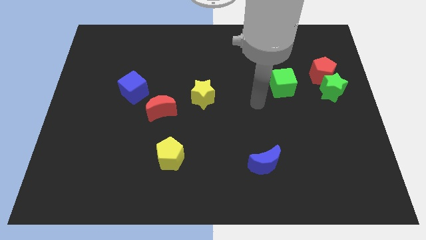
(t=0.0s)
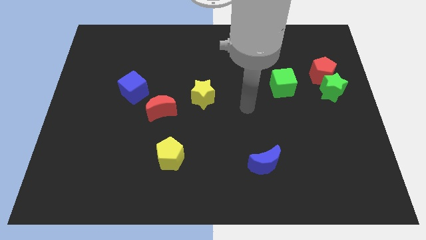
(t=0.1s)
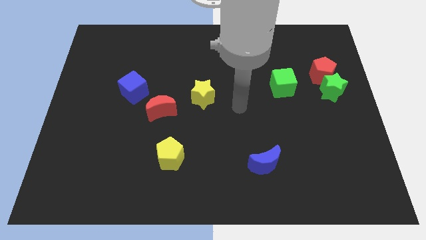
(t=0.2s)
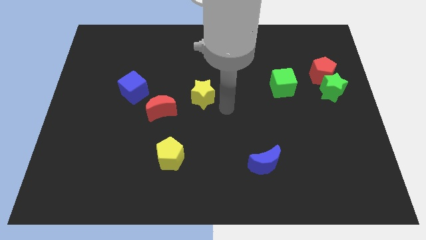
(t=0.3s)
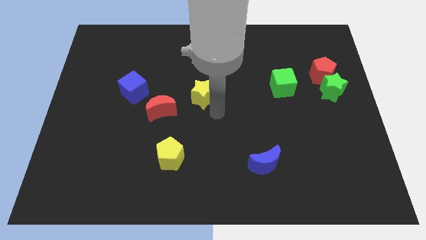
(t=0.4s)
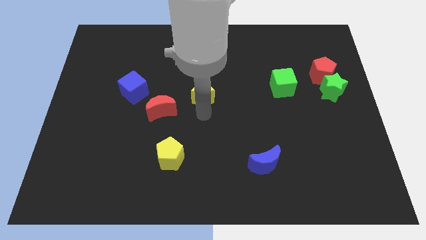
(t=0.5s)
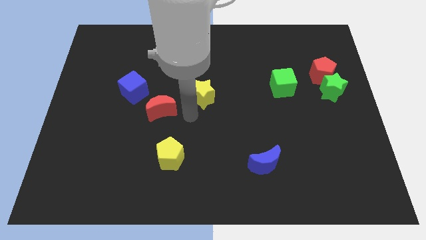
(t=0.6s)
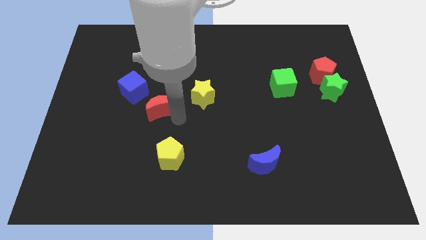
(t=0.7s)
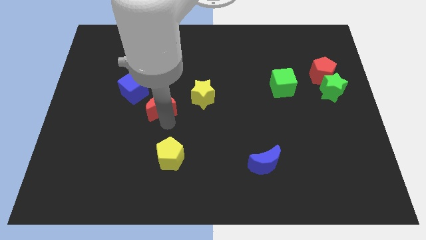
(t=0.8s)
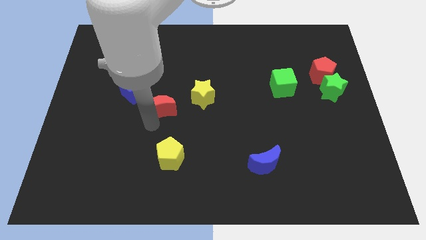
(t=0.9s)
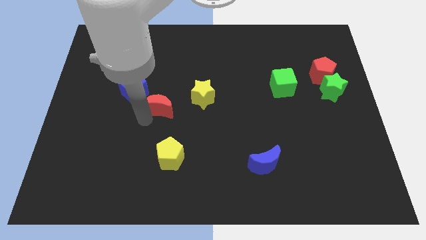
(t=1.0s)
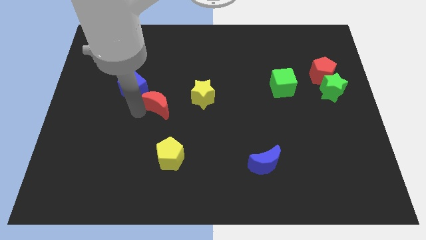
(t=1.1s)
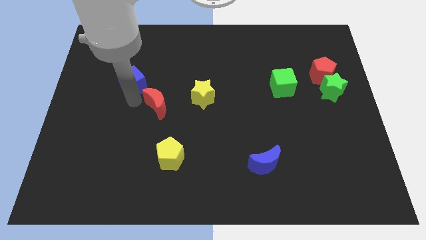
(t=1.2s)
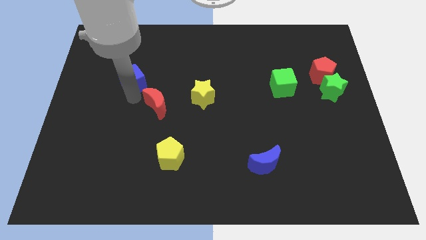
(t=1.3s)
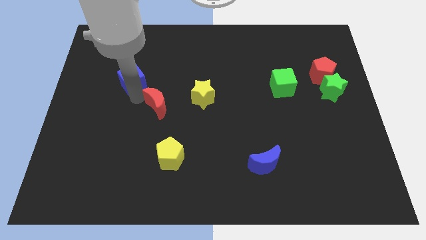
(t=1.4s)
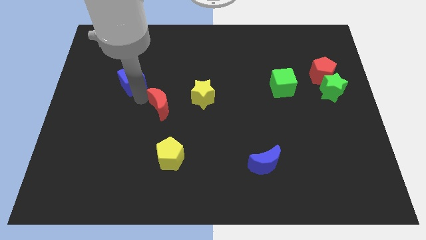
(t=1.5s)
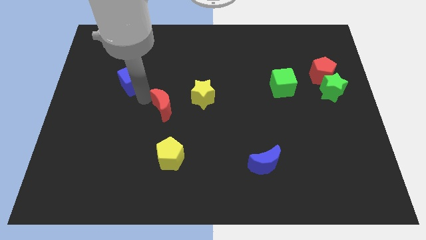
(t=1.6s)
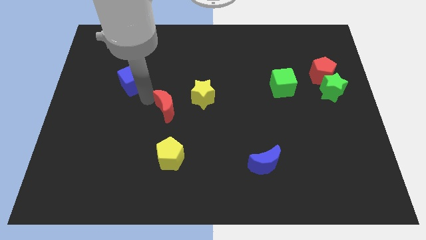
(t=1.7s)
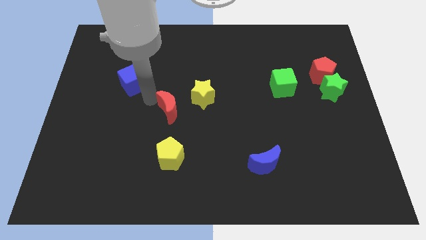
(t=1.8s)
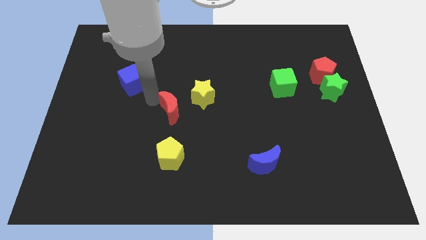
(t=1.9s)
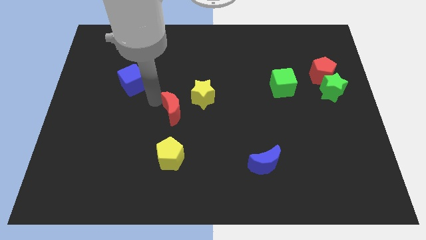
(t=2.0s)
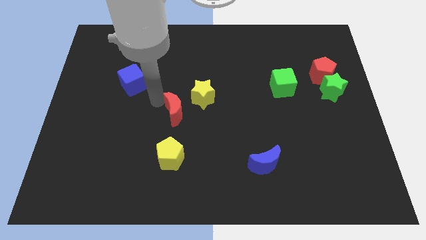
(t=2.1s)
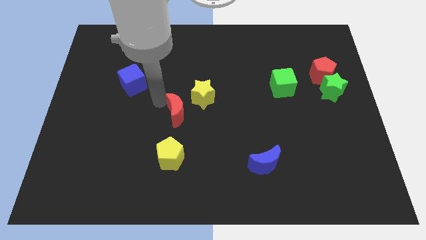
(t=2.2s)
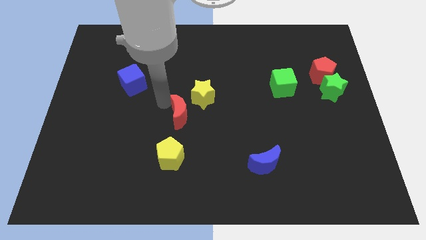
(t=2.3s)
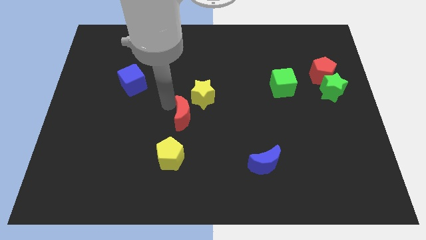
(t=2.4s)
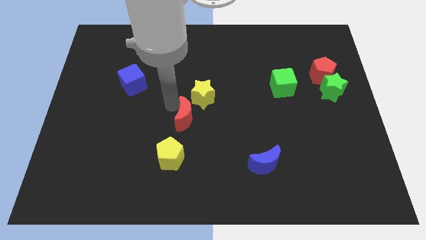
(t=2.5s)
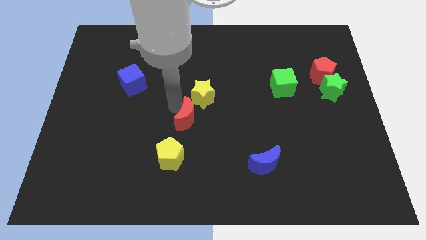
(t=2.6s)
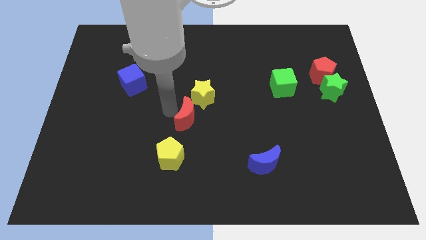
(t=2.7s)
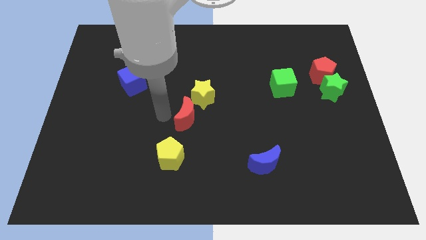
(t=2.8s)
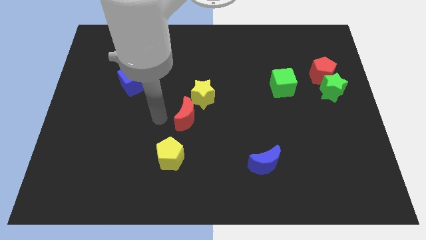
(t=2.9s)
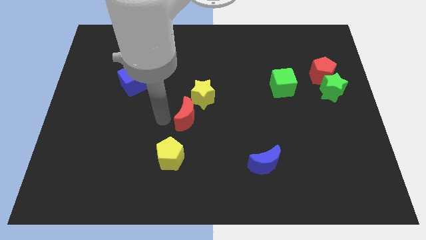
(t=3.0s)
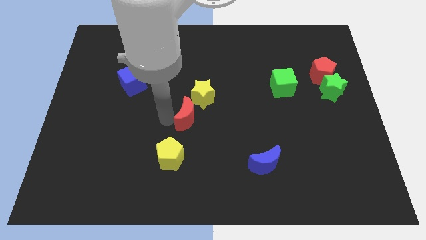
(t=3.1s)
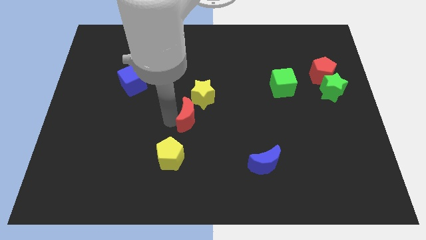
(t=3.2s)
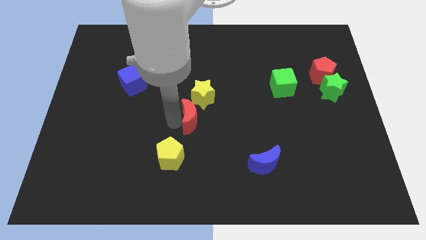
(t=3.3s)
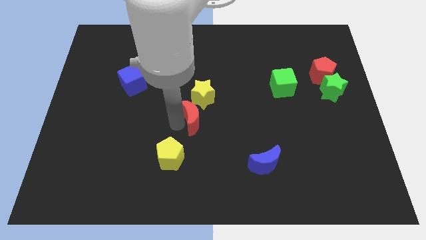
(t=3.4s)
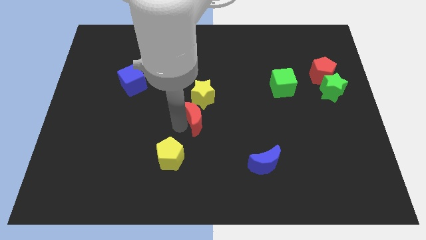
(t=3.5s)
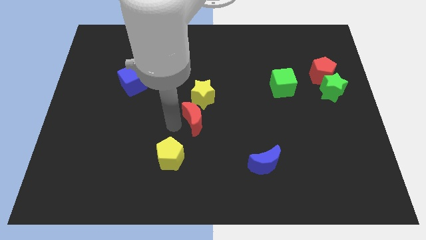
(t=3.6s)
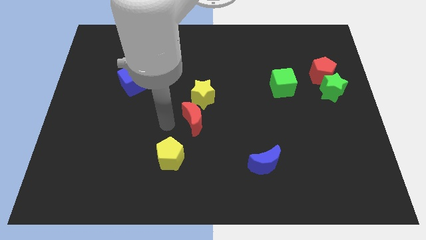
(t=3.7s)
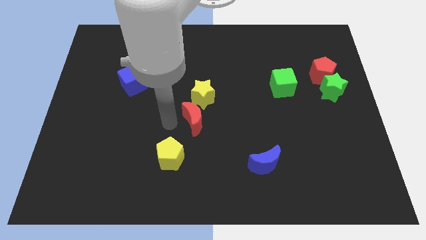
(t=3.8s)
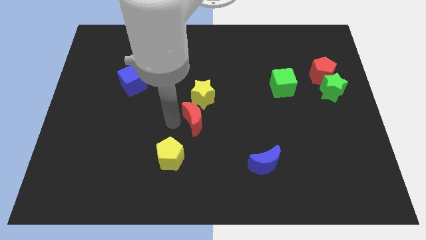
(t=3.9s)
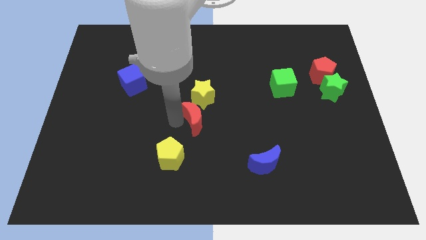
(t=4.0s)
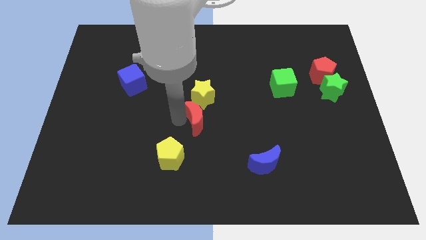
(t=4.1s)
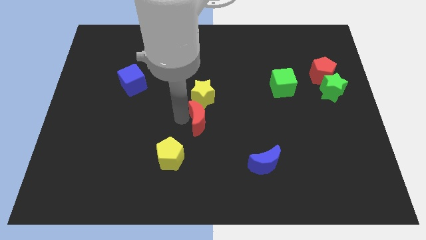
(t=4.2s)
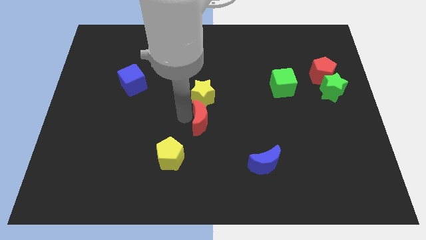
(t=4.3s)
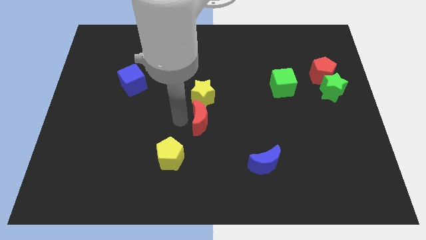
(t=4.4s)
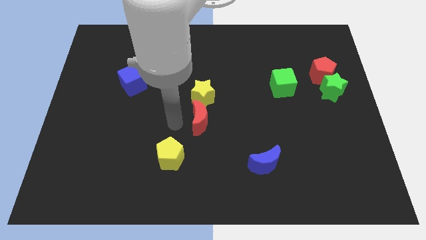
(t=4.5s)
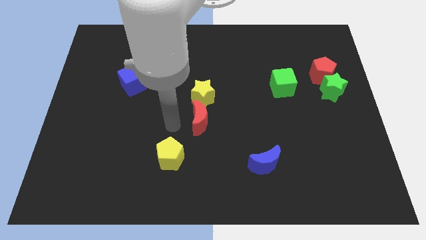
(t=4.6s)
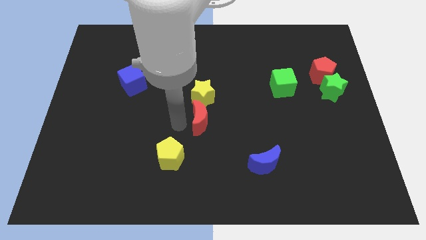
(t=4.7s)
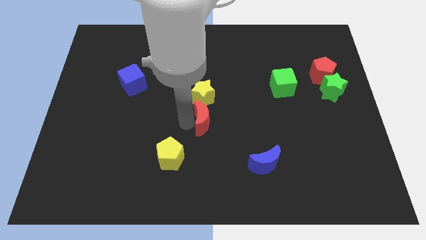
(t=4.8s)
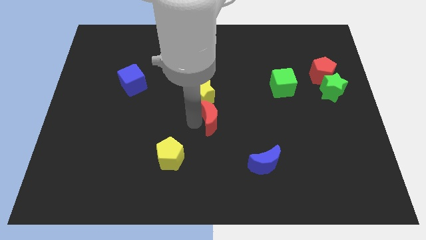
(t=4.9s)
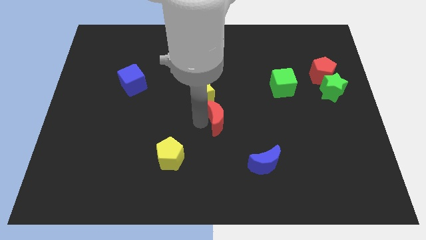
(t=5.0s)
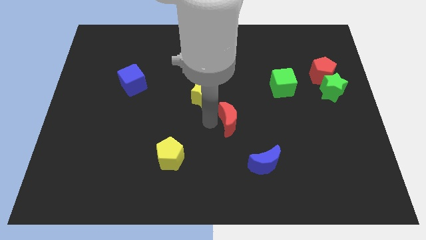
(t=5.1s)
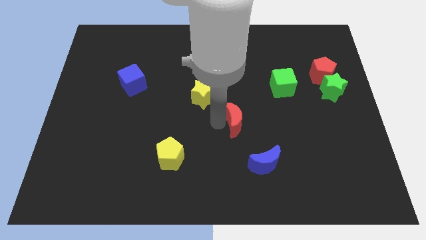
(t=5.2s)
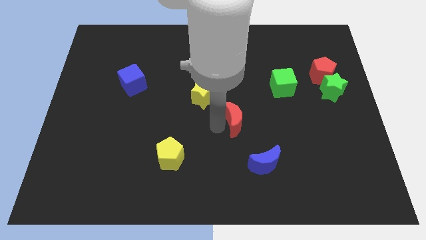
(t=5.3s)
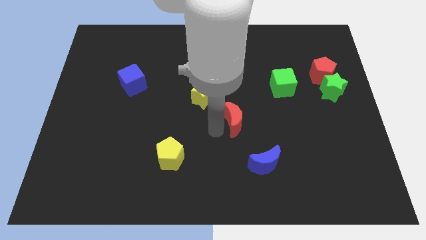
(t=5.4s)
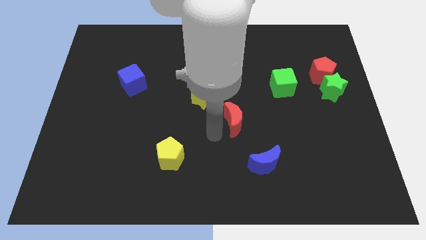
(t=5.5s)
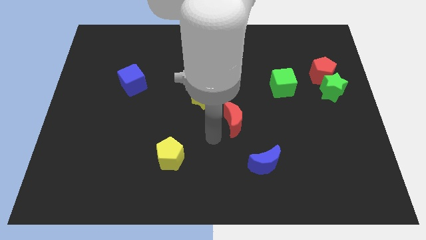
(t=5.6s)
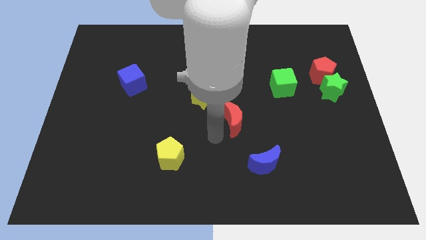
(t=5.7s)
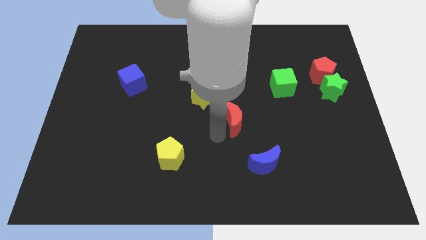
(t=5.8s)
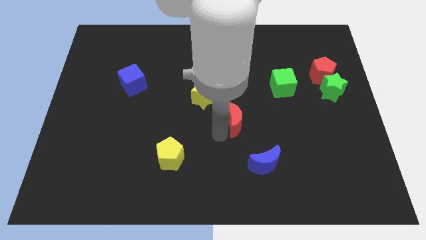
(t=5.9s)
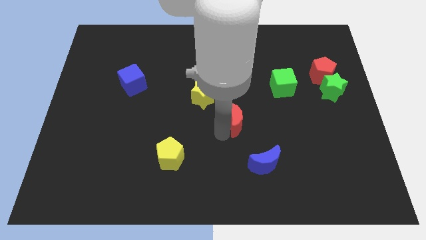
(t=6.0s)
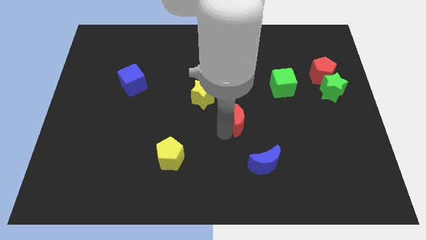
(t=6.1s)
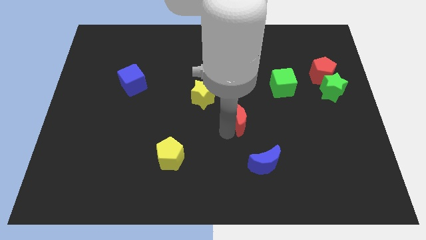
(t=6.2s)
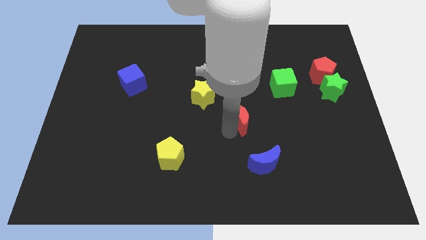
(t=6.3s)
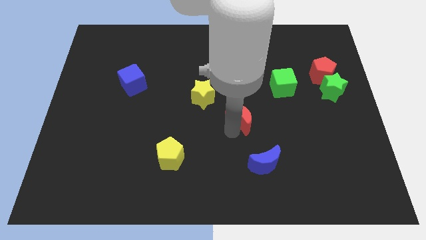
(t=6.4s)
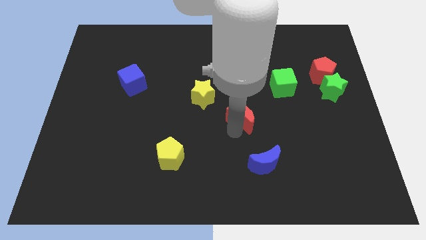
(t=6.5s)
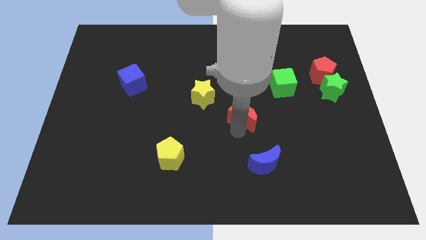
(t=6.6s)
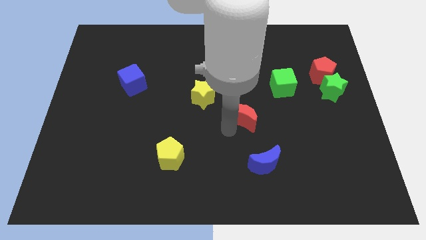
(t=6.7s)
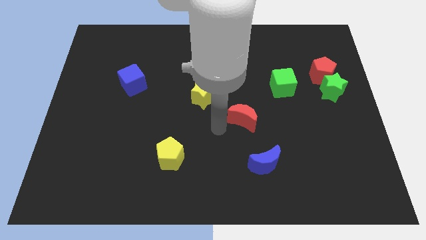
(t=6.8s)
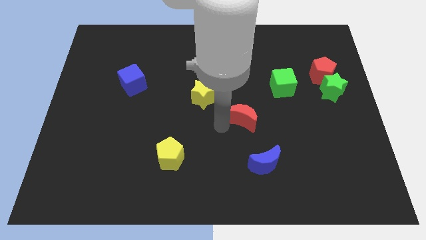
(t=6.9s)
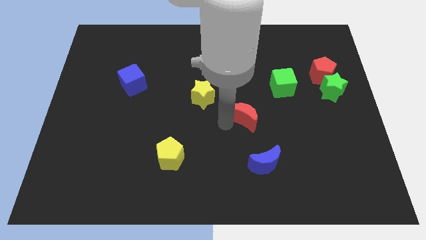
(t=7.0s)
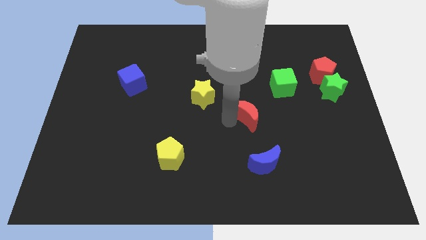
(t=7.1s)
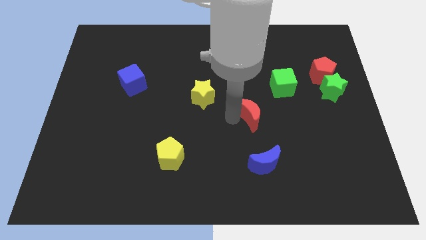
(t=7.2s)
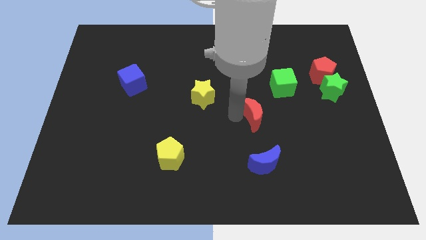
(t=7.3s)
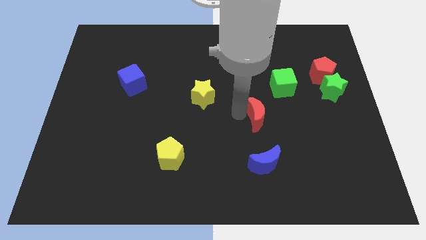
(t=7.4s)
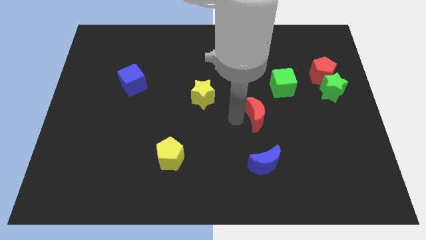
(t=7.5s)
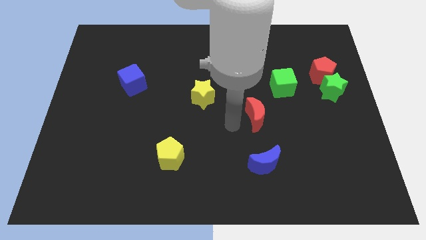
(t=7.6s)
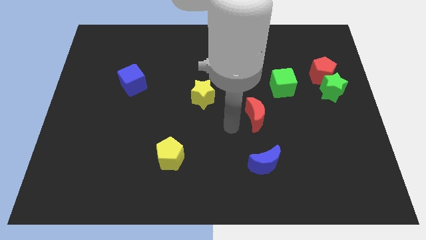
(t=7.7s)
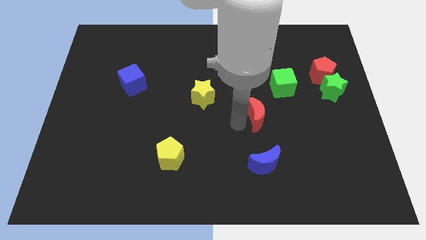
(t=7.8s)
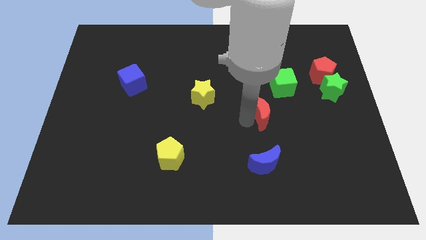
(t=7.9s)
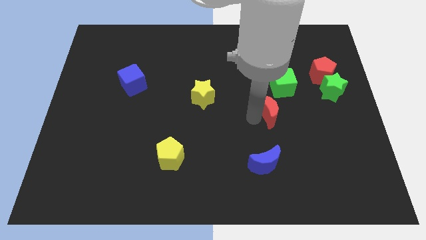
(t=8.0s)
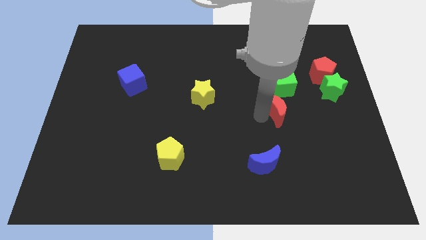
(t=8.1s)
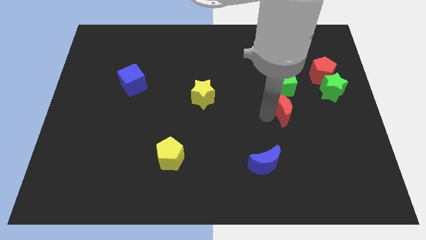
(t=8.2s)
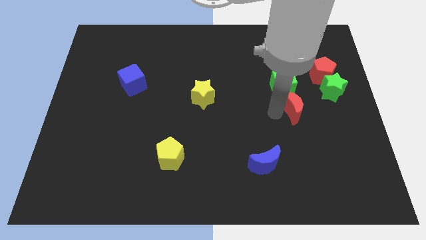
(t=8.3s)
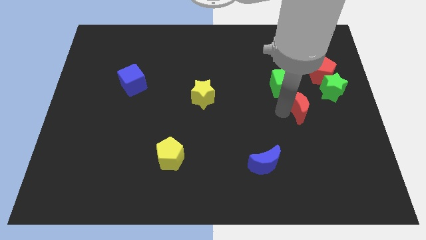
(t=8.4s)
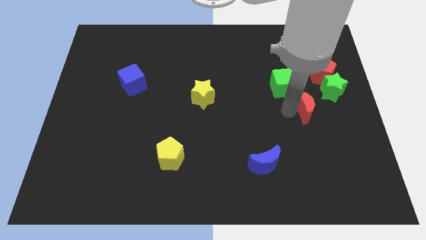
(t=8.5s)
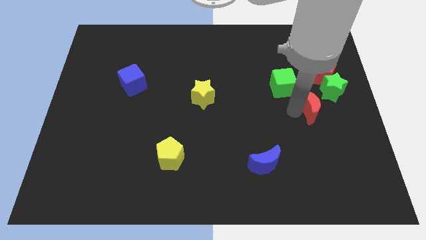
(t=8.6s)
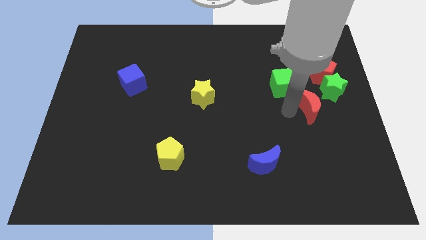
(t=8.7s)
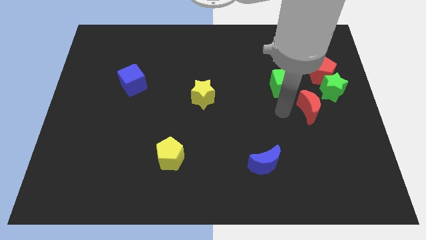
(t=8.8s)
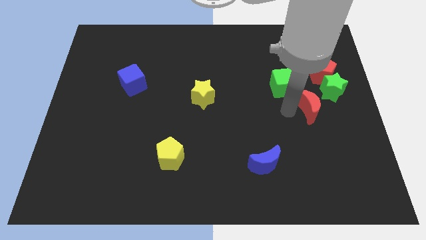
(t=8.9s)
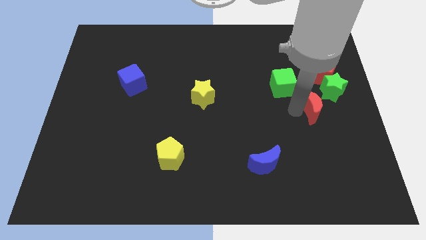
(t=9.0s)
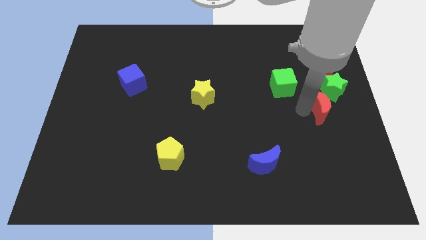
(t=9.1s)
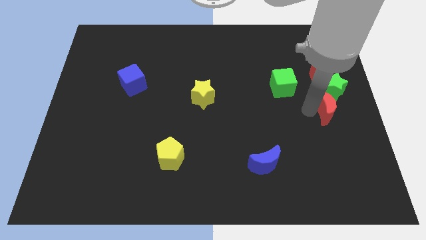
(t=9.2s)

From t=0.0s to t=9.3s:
push the red moon to the right side of the board
